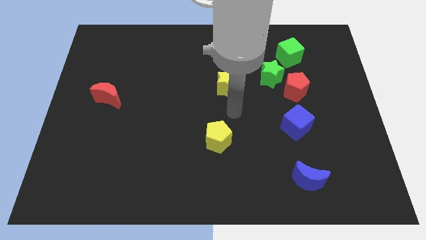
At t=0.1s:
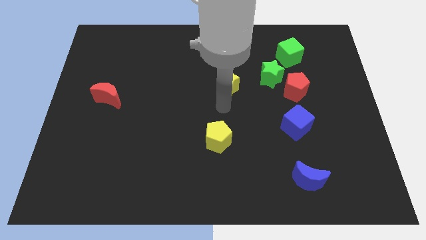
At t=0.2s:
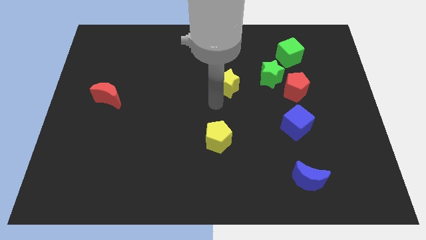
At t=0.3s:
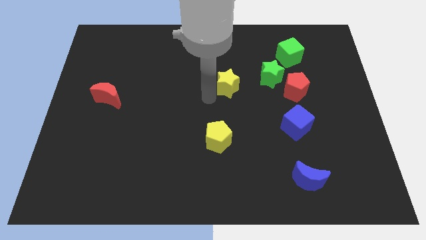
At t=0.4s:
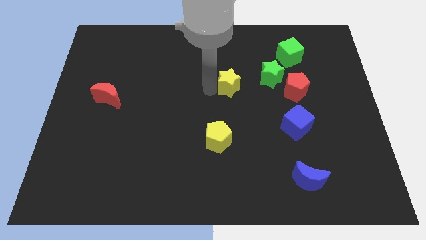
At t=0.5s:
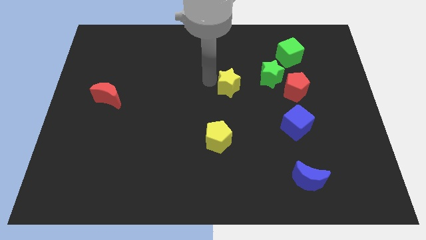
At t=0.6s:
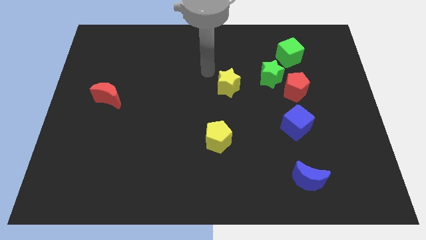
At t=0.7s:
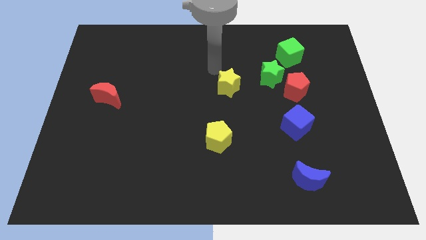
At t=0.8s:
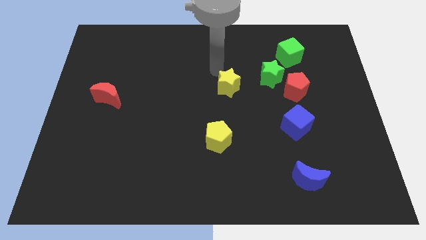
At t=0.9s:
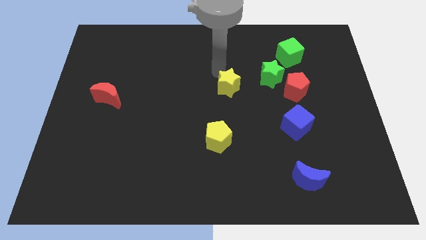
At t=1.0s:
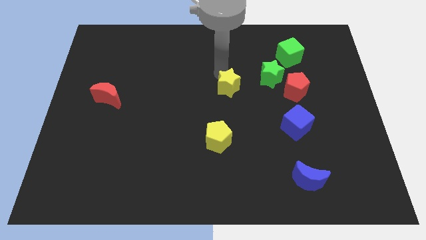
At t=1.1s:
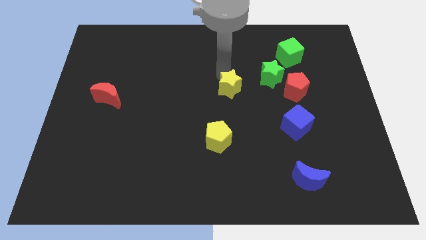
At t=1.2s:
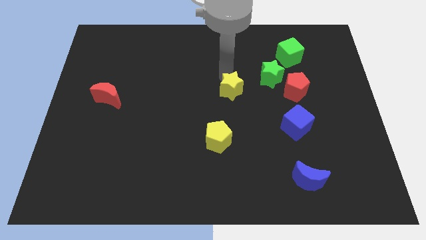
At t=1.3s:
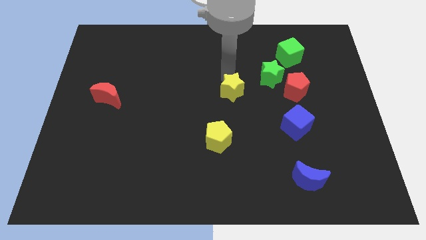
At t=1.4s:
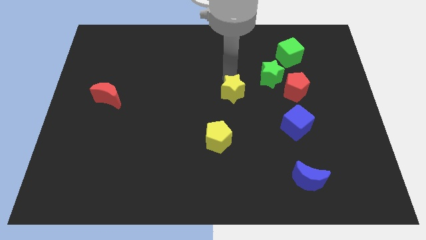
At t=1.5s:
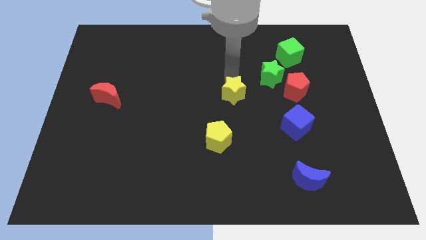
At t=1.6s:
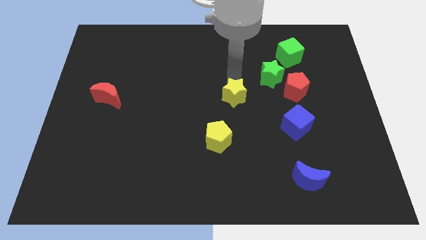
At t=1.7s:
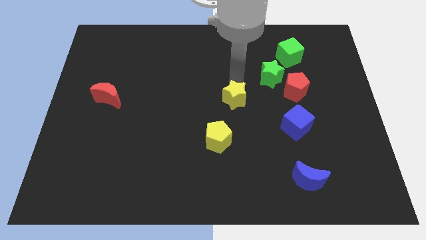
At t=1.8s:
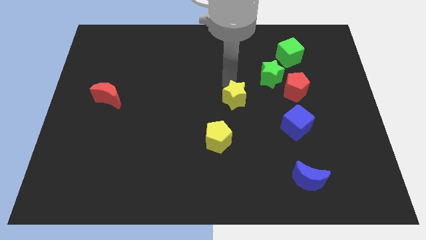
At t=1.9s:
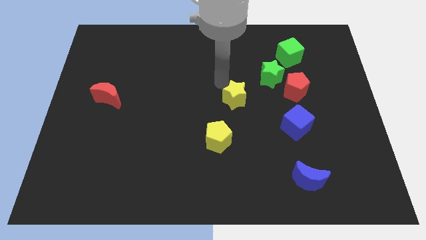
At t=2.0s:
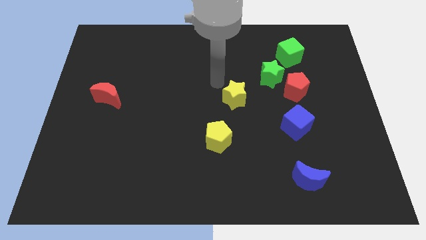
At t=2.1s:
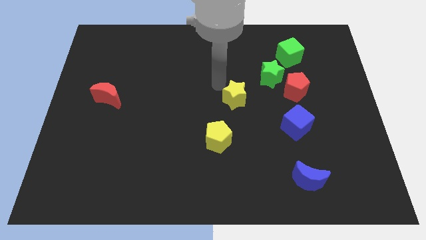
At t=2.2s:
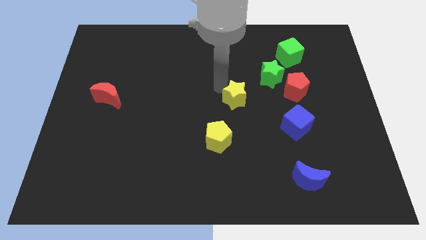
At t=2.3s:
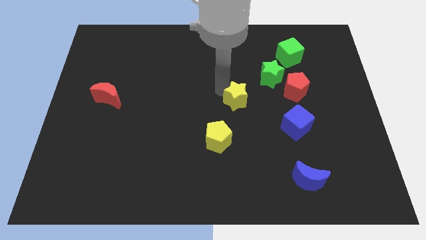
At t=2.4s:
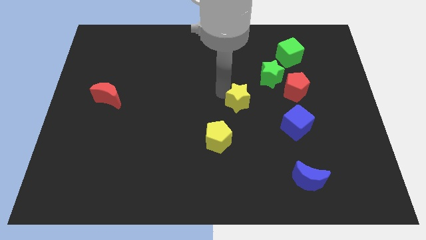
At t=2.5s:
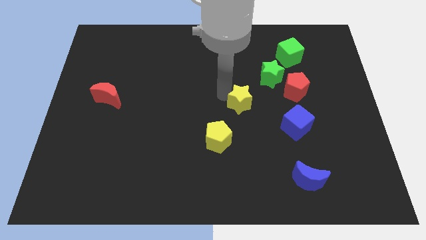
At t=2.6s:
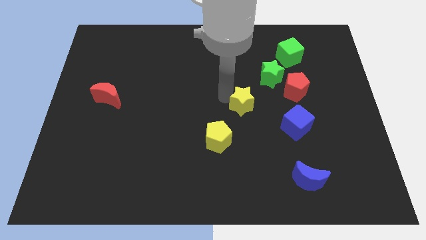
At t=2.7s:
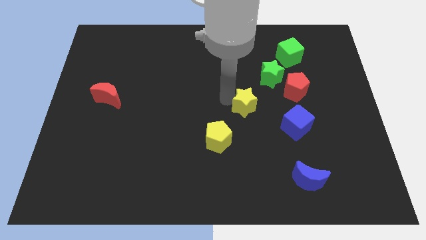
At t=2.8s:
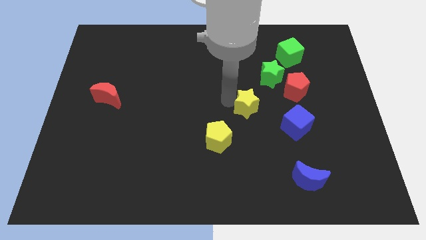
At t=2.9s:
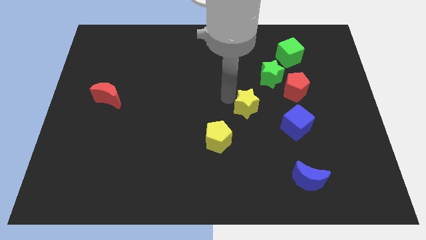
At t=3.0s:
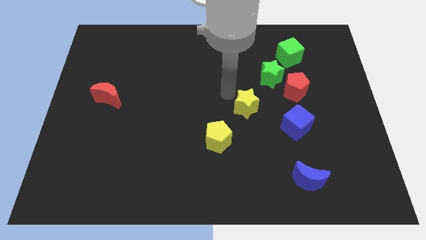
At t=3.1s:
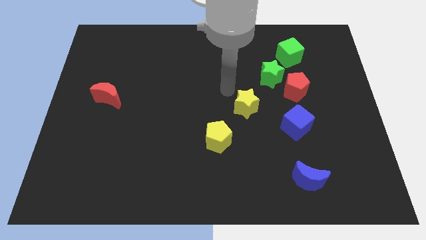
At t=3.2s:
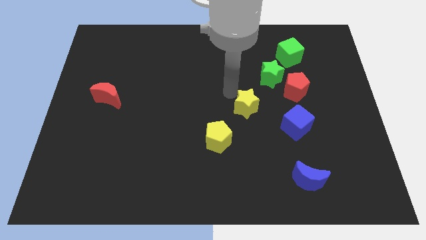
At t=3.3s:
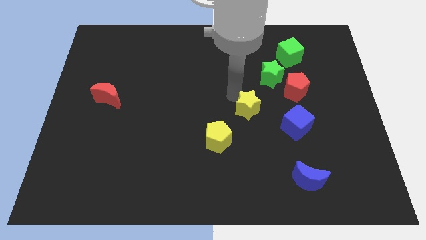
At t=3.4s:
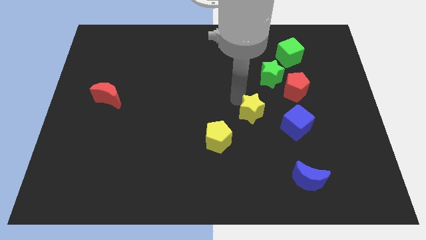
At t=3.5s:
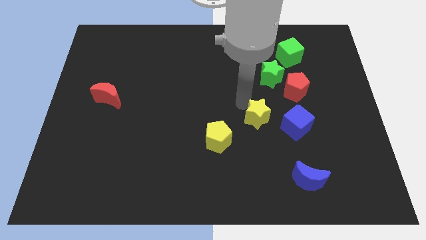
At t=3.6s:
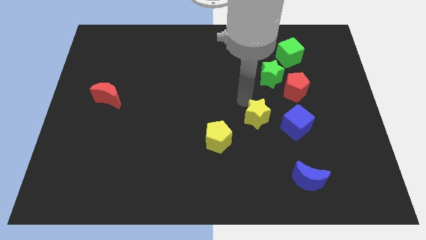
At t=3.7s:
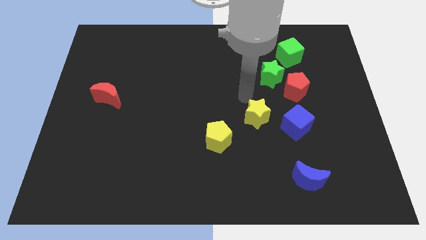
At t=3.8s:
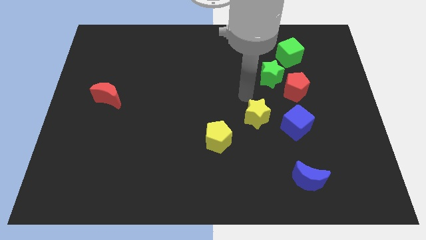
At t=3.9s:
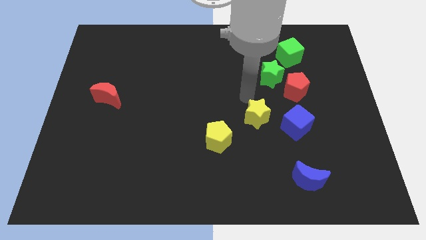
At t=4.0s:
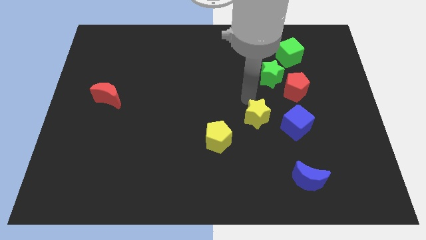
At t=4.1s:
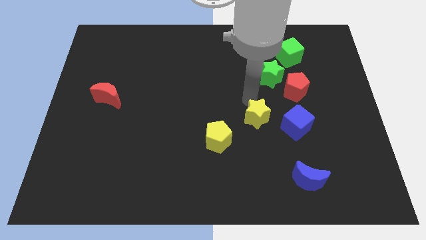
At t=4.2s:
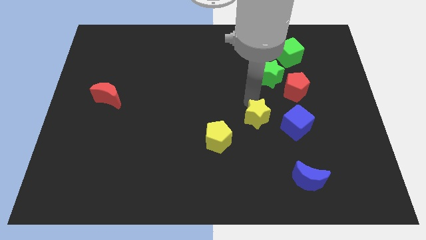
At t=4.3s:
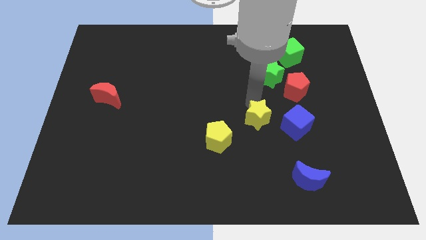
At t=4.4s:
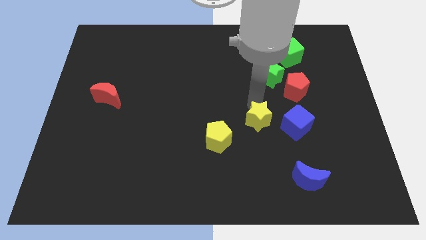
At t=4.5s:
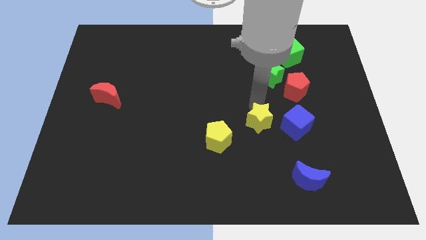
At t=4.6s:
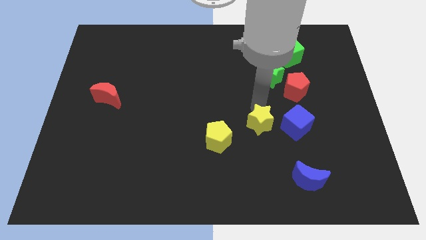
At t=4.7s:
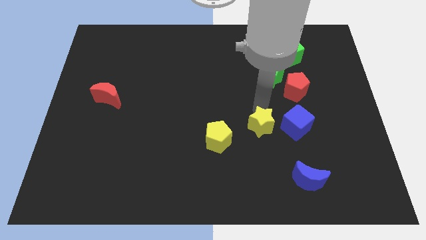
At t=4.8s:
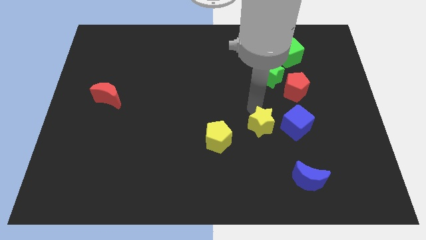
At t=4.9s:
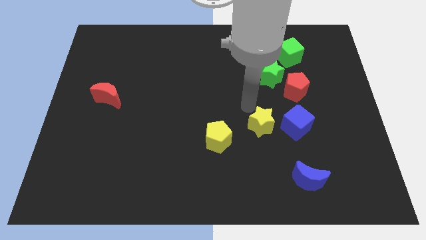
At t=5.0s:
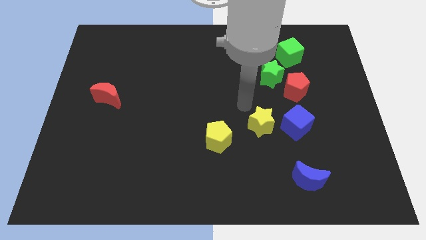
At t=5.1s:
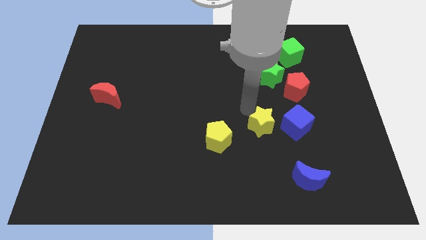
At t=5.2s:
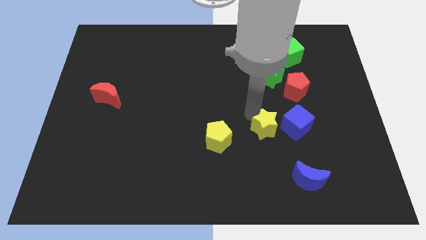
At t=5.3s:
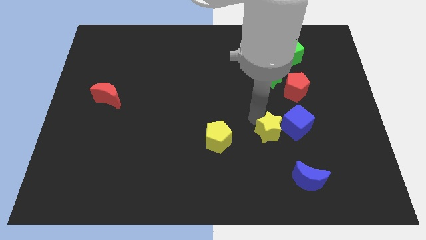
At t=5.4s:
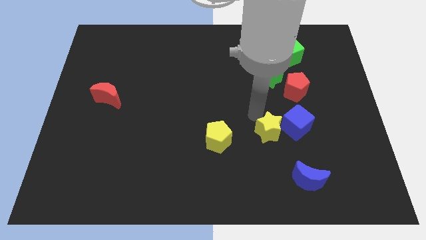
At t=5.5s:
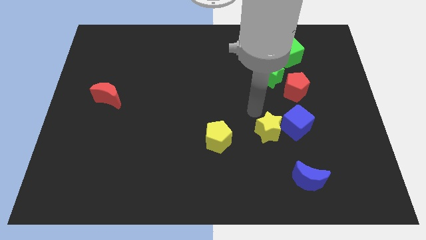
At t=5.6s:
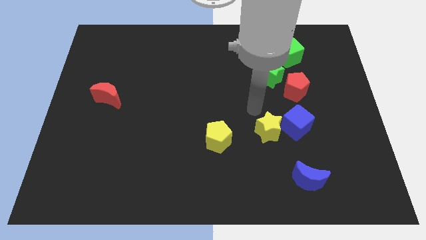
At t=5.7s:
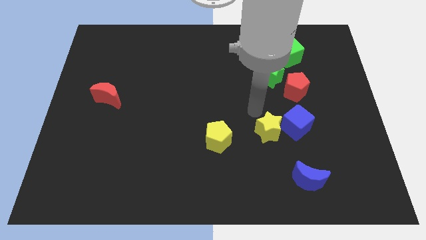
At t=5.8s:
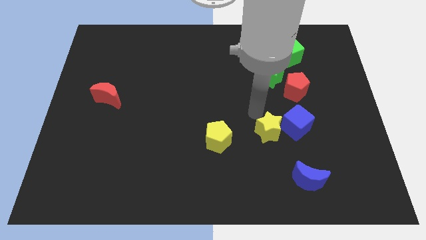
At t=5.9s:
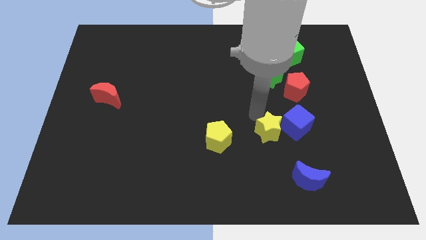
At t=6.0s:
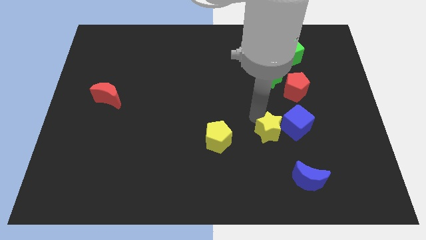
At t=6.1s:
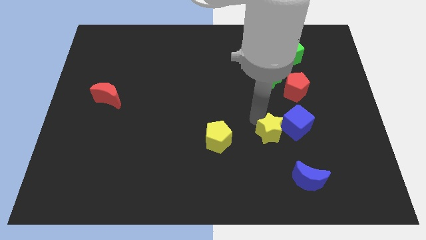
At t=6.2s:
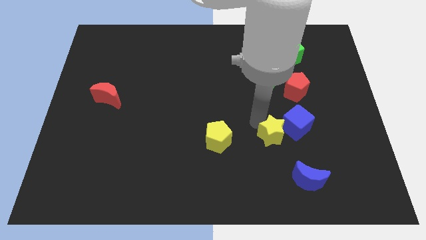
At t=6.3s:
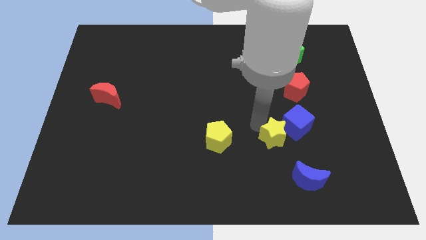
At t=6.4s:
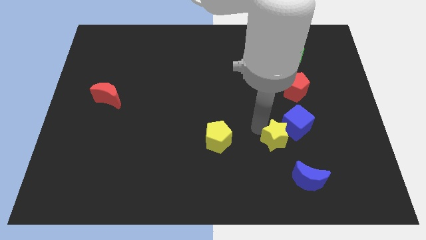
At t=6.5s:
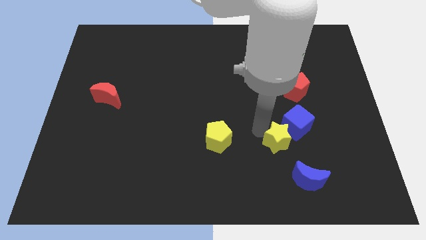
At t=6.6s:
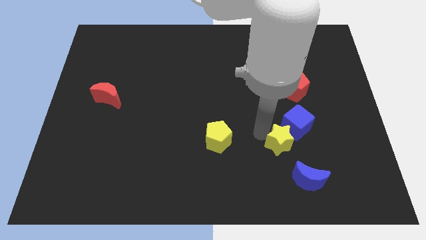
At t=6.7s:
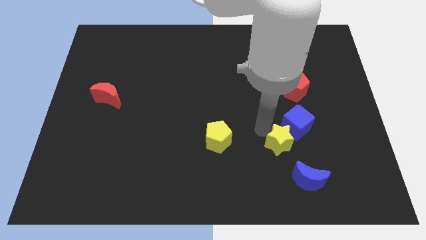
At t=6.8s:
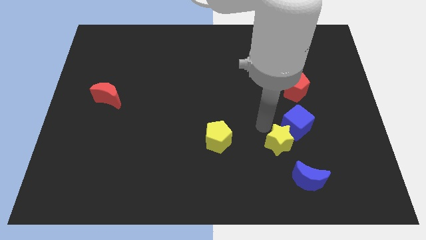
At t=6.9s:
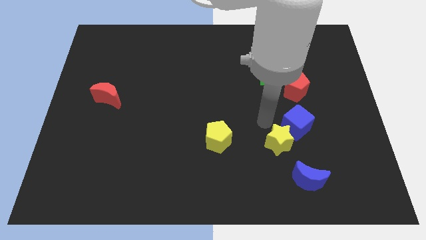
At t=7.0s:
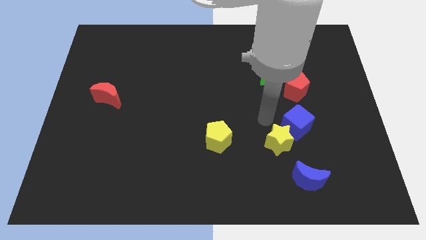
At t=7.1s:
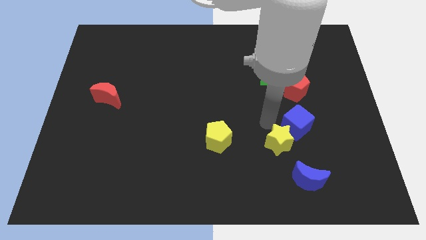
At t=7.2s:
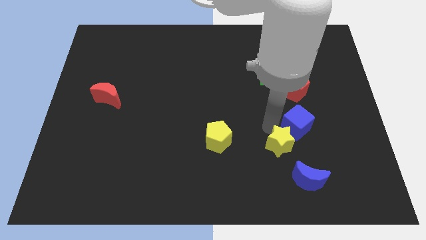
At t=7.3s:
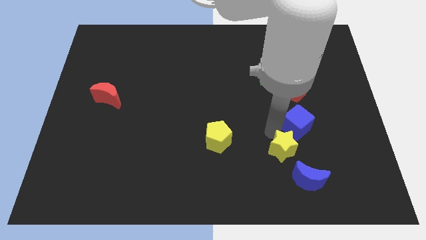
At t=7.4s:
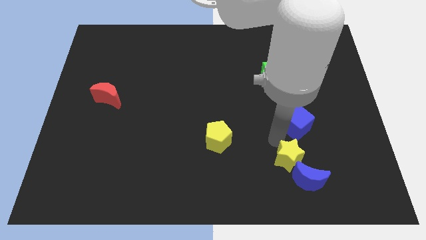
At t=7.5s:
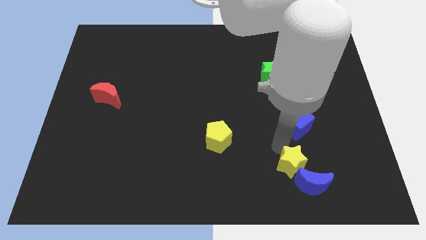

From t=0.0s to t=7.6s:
slide the yellow star next to the blue moon
